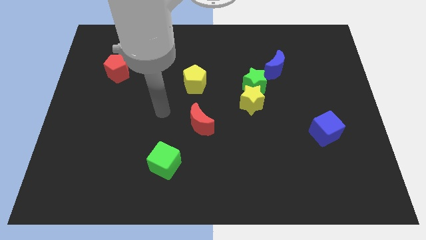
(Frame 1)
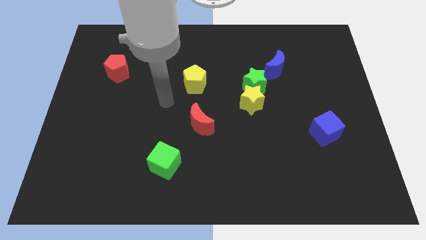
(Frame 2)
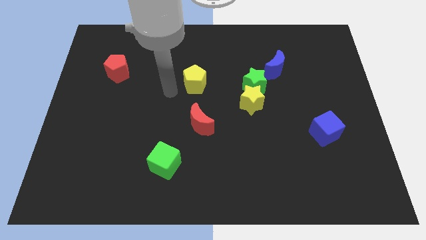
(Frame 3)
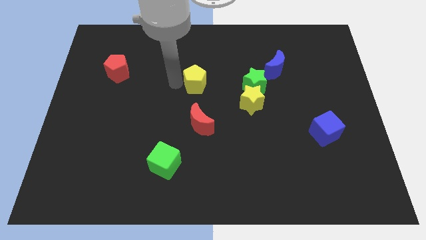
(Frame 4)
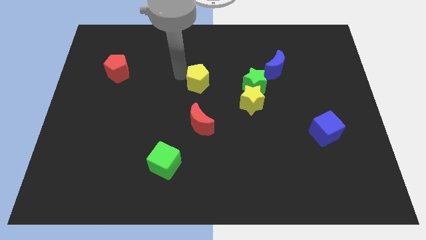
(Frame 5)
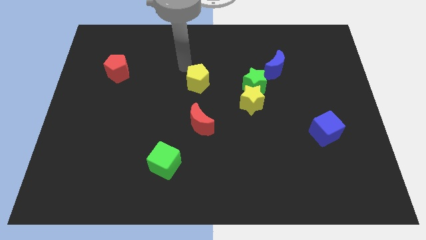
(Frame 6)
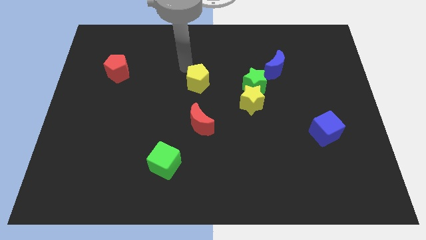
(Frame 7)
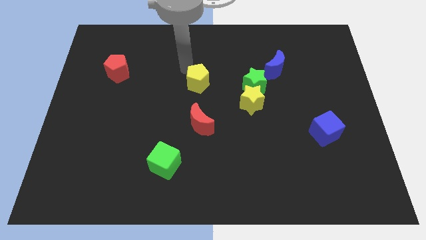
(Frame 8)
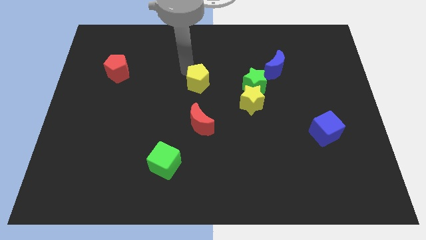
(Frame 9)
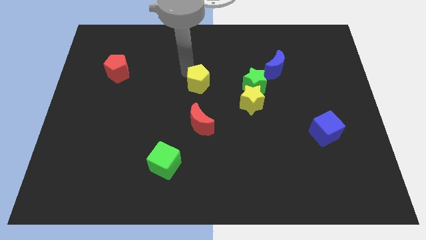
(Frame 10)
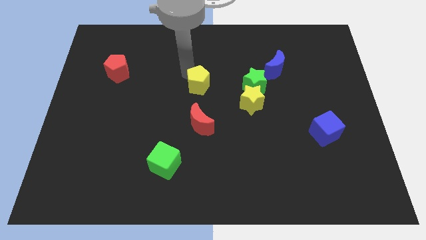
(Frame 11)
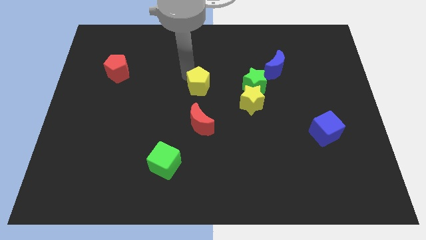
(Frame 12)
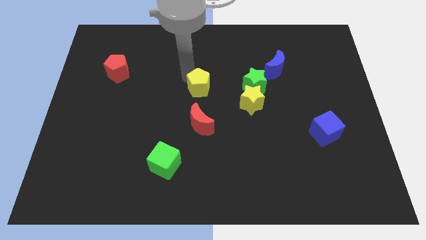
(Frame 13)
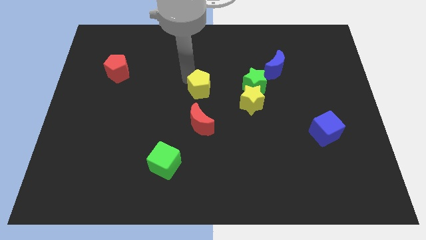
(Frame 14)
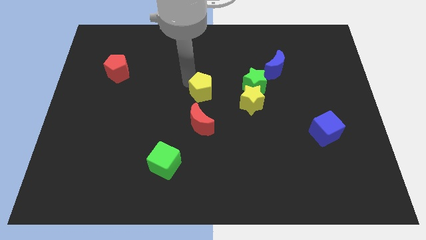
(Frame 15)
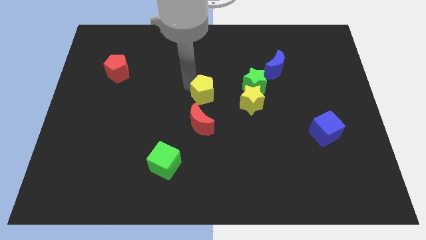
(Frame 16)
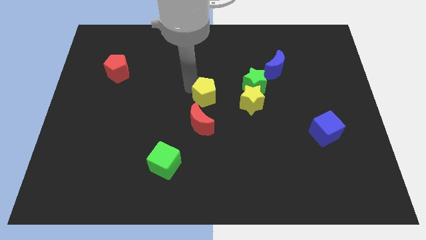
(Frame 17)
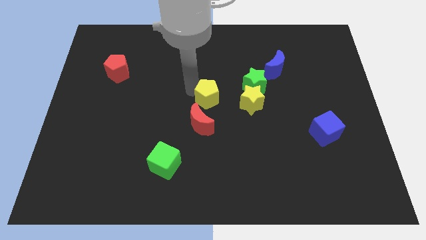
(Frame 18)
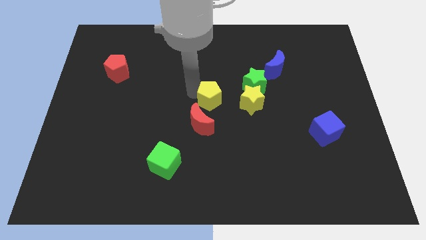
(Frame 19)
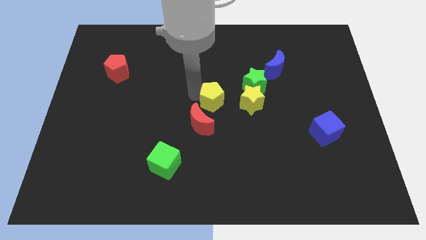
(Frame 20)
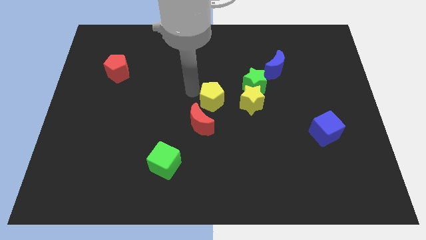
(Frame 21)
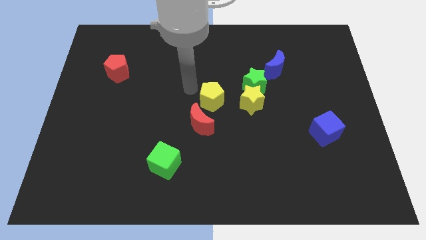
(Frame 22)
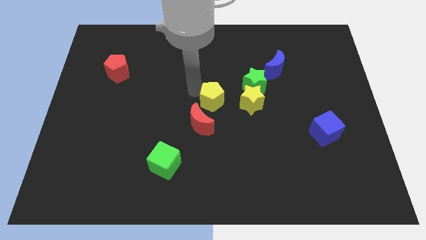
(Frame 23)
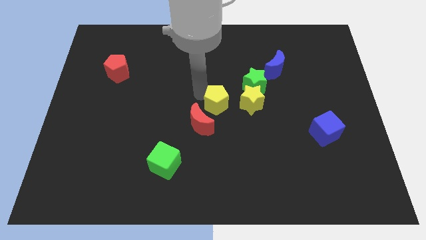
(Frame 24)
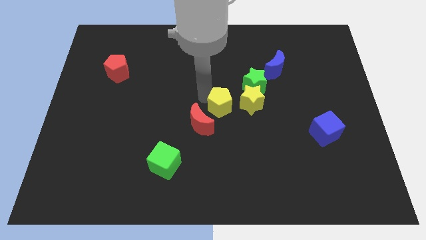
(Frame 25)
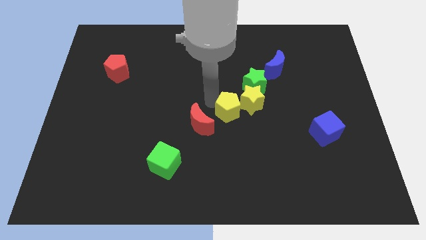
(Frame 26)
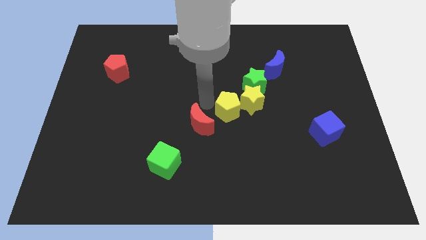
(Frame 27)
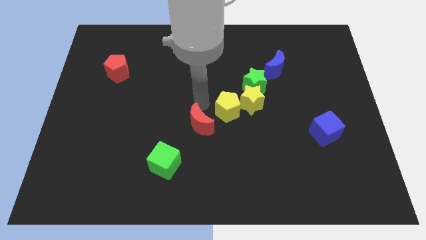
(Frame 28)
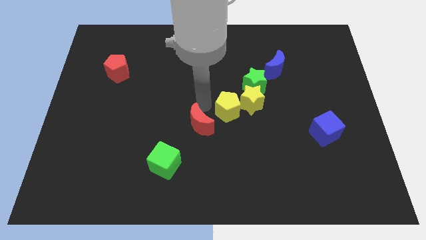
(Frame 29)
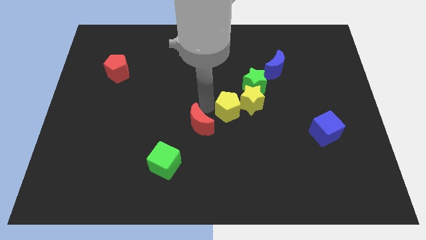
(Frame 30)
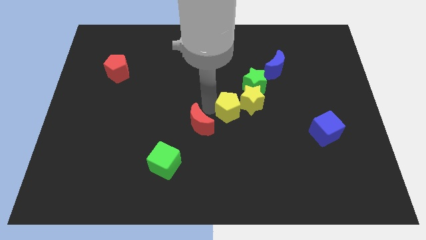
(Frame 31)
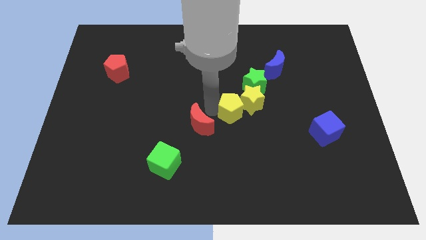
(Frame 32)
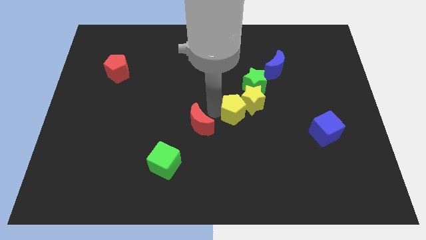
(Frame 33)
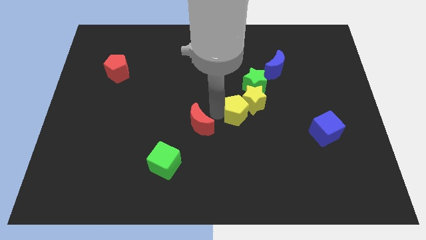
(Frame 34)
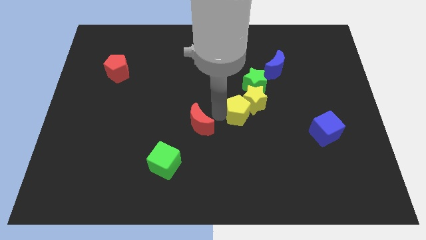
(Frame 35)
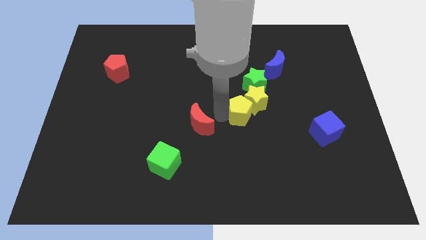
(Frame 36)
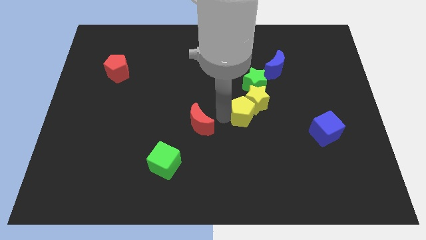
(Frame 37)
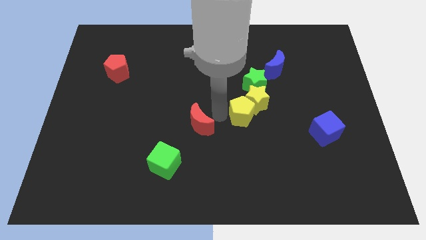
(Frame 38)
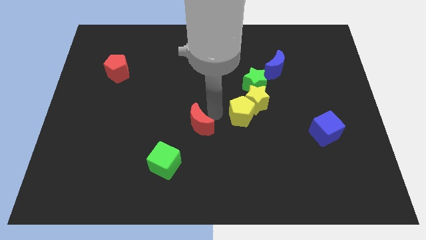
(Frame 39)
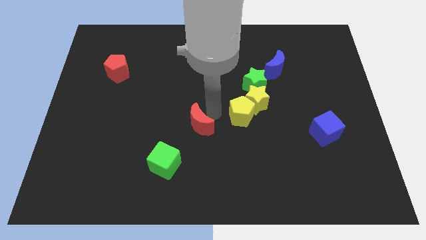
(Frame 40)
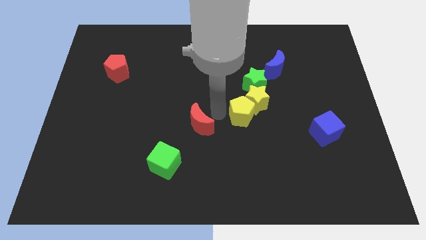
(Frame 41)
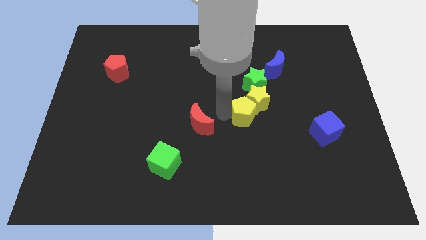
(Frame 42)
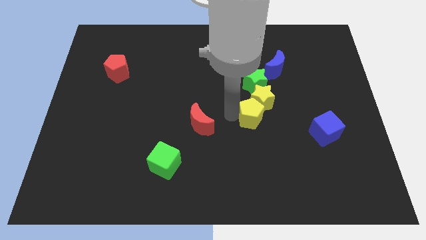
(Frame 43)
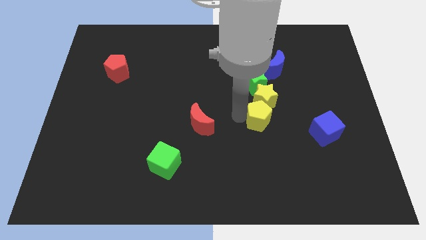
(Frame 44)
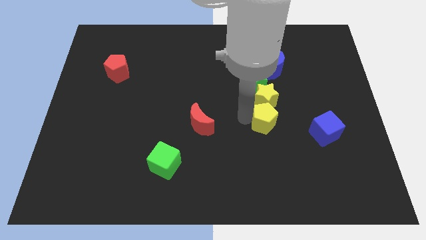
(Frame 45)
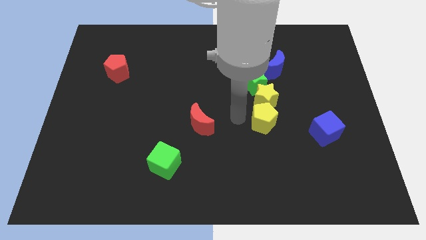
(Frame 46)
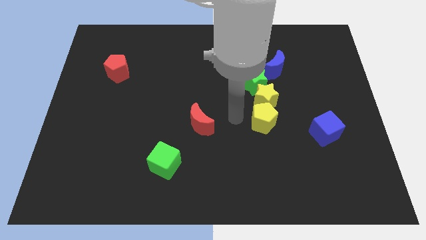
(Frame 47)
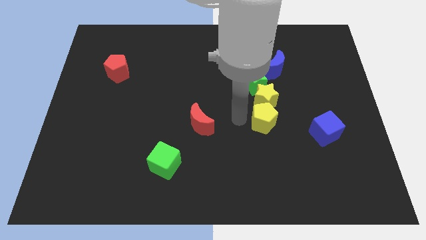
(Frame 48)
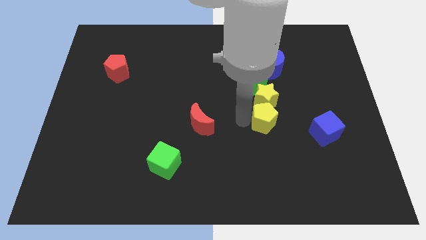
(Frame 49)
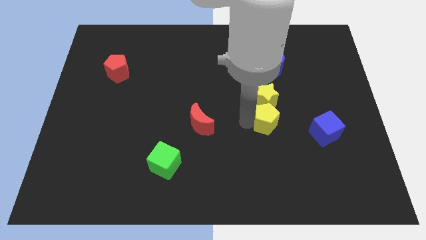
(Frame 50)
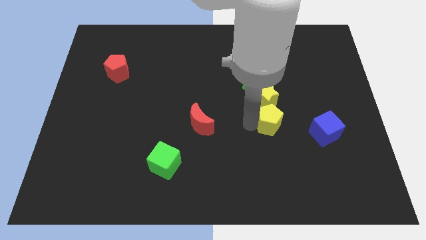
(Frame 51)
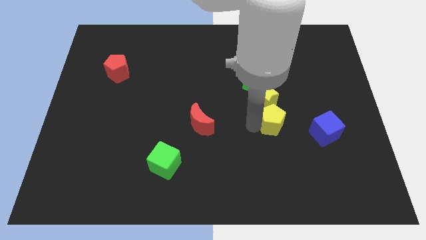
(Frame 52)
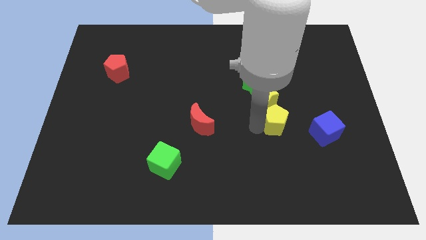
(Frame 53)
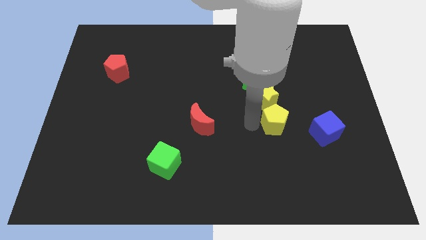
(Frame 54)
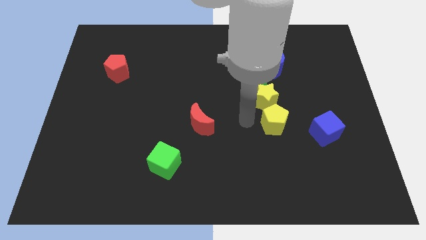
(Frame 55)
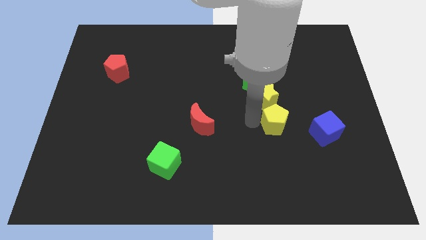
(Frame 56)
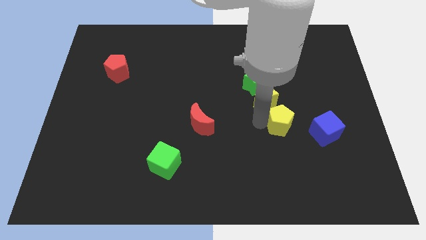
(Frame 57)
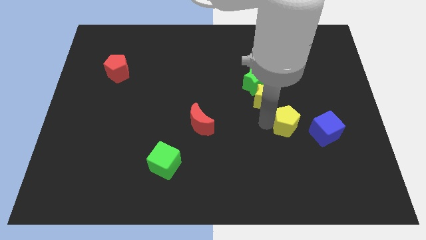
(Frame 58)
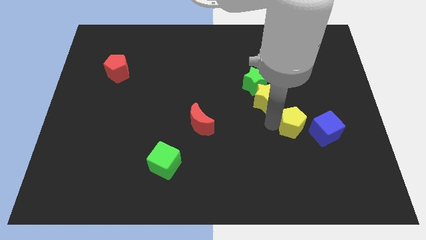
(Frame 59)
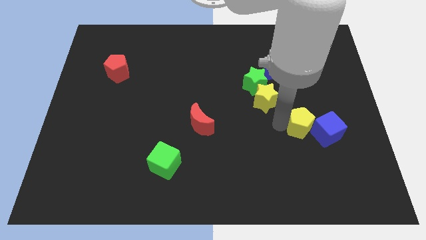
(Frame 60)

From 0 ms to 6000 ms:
put the yellow pentagon close to the blue cube

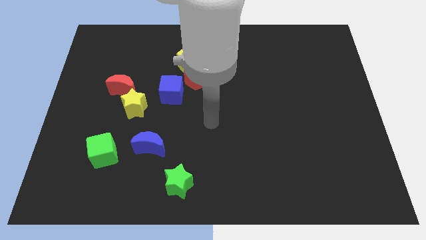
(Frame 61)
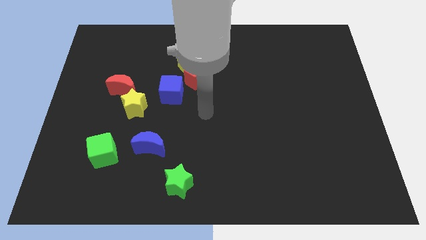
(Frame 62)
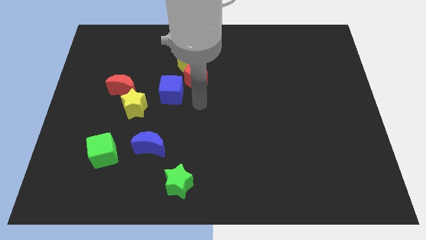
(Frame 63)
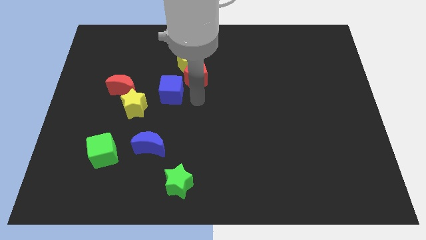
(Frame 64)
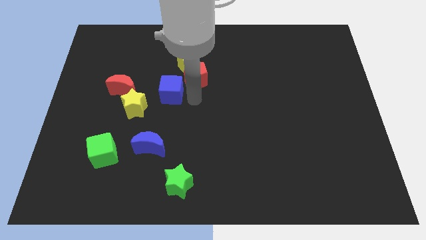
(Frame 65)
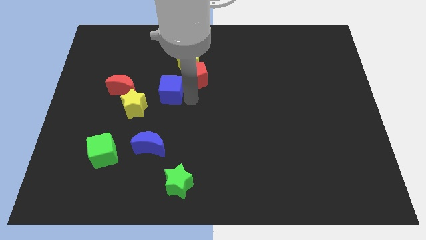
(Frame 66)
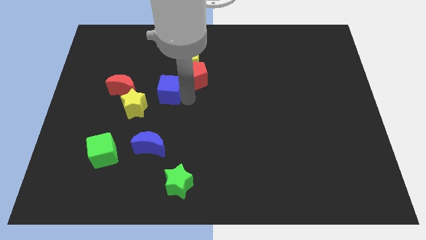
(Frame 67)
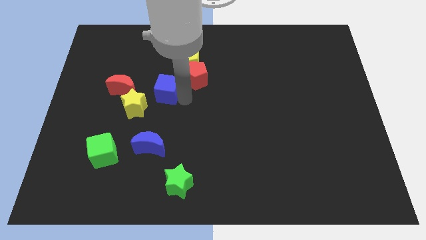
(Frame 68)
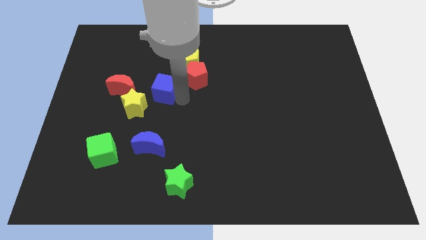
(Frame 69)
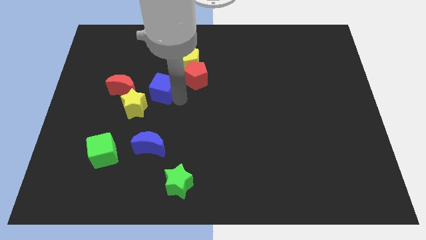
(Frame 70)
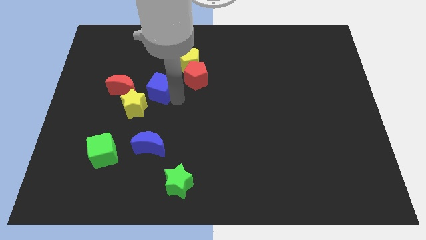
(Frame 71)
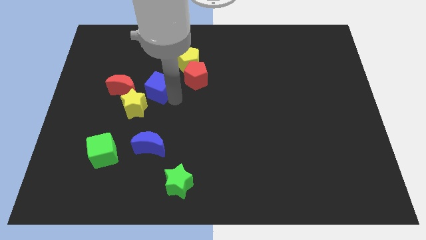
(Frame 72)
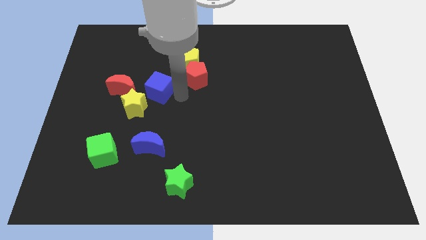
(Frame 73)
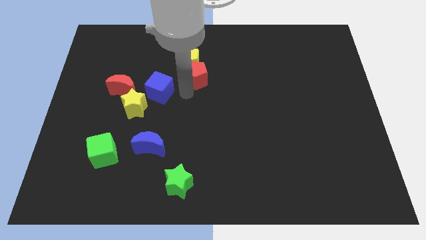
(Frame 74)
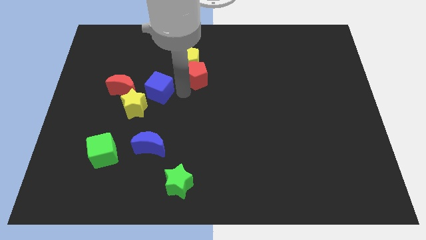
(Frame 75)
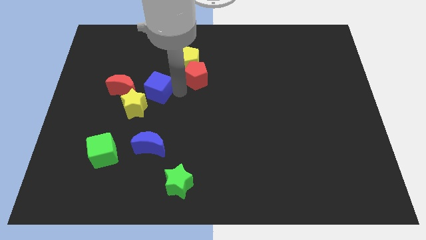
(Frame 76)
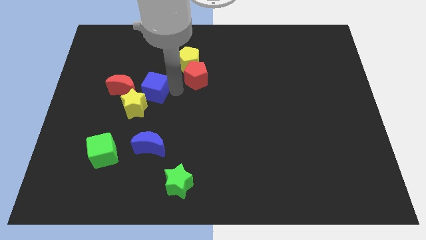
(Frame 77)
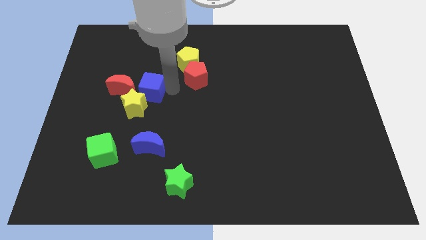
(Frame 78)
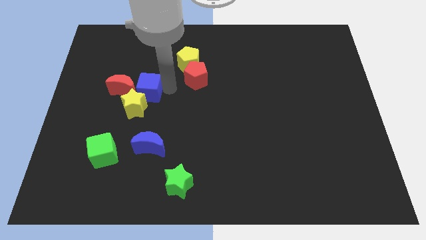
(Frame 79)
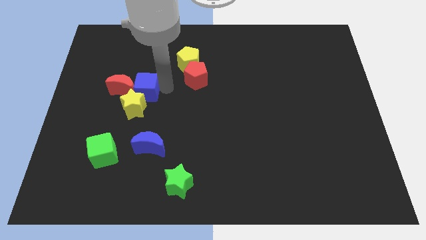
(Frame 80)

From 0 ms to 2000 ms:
move the blue cube close to the red moon
